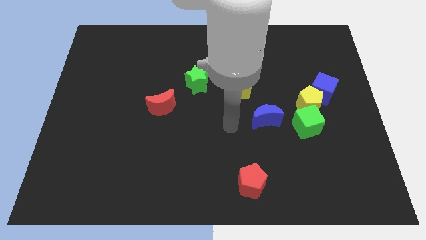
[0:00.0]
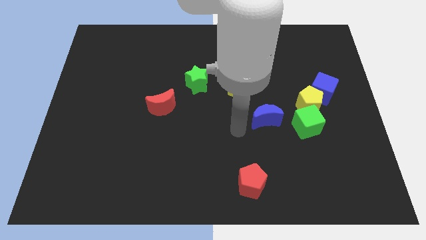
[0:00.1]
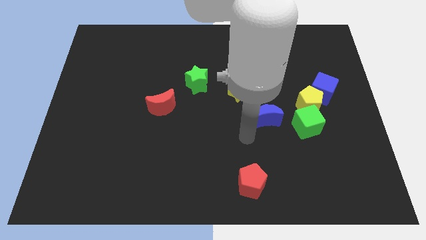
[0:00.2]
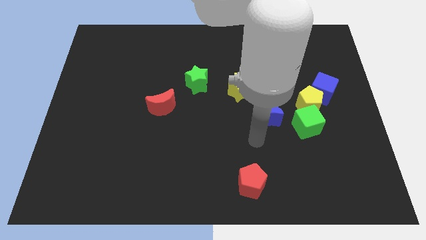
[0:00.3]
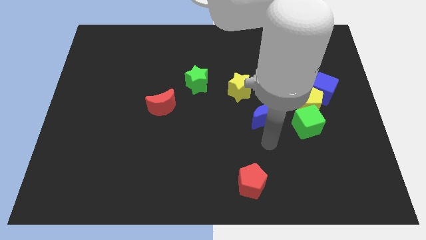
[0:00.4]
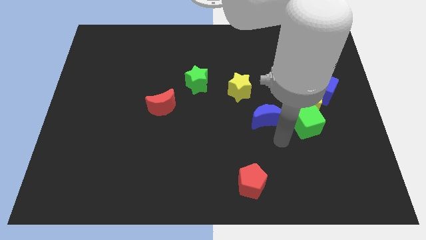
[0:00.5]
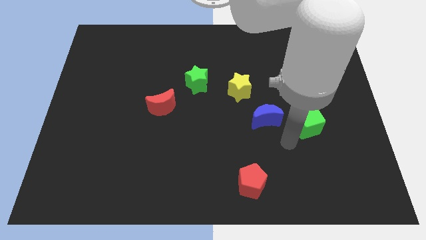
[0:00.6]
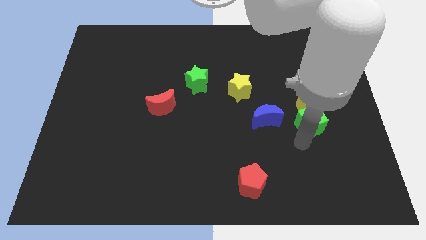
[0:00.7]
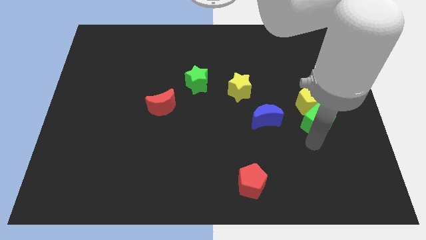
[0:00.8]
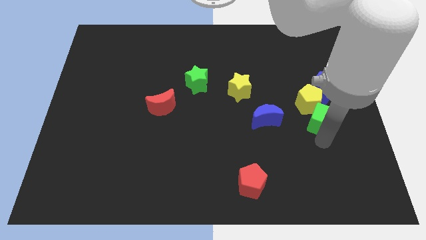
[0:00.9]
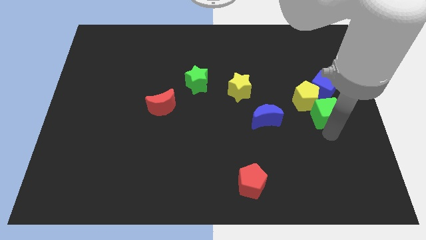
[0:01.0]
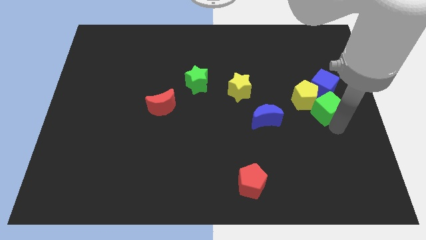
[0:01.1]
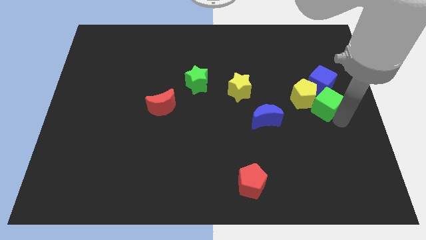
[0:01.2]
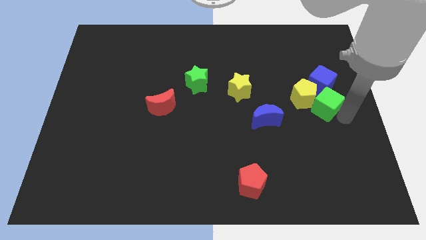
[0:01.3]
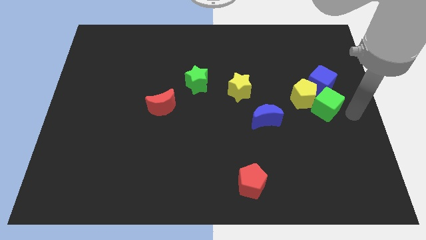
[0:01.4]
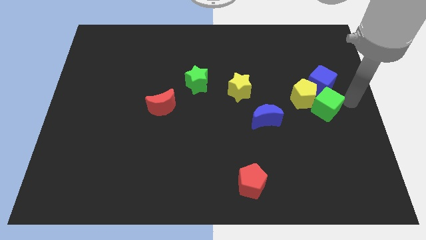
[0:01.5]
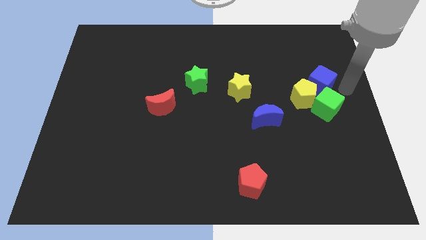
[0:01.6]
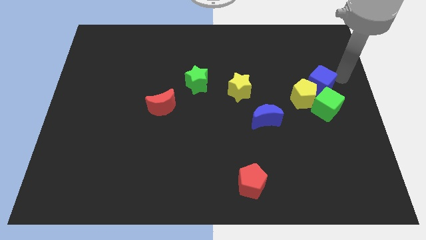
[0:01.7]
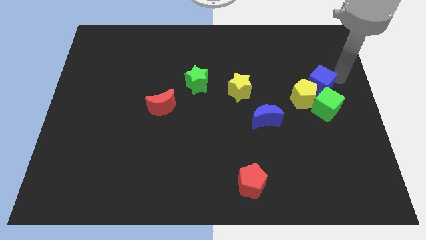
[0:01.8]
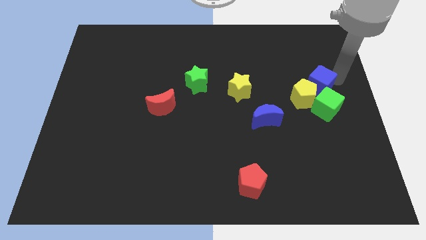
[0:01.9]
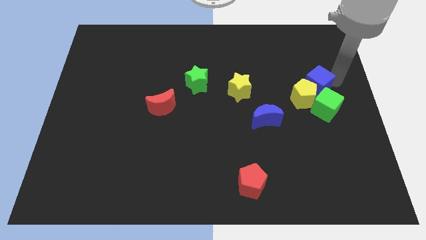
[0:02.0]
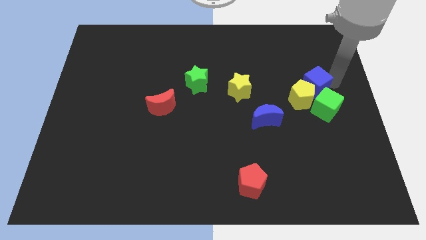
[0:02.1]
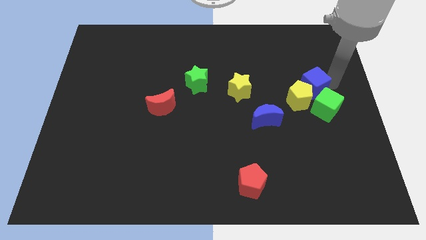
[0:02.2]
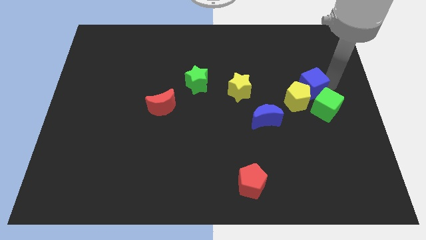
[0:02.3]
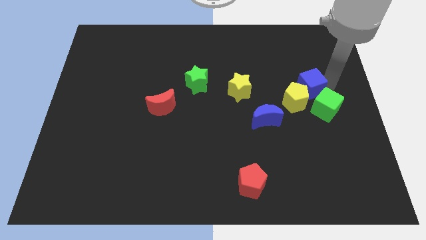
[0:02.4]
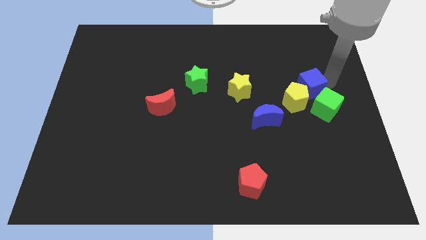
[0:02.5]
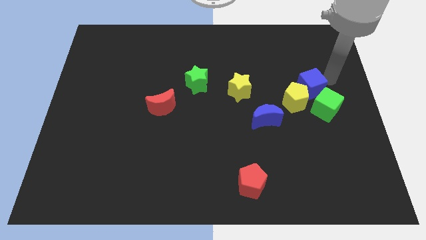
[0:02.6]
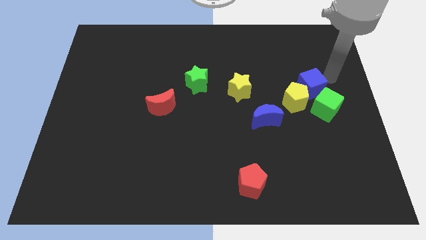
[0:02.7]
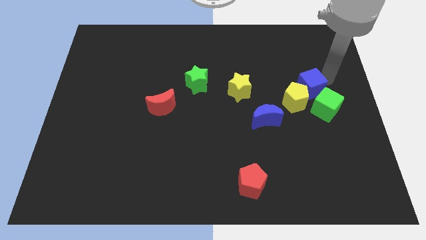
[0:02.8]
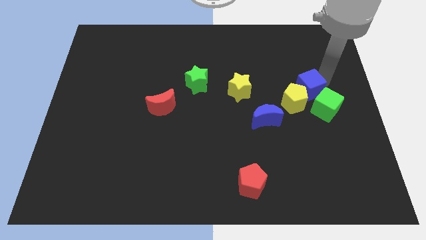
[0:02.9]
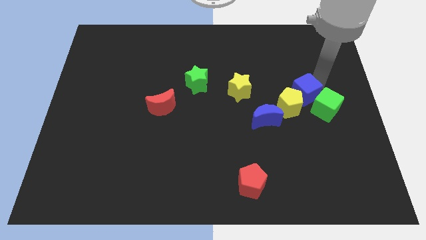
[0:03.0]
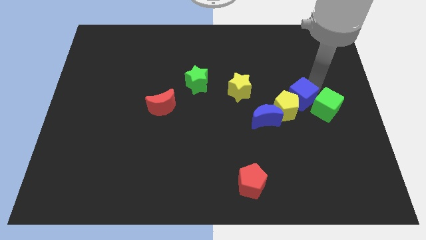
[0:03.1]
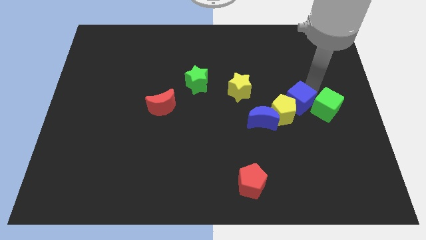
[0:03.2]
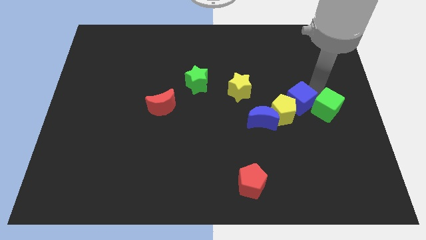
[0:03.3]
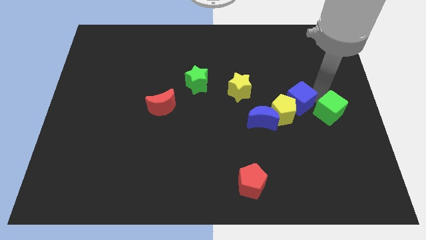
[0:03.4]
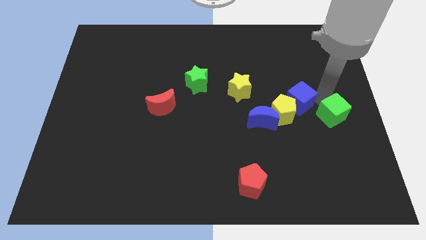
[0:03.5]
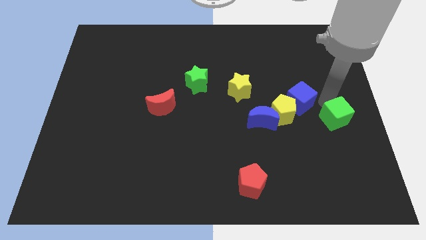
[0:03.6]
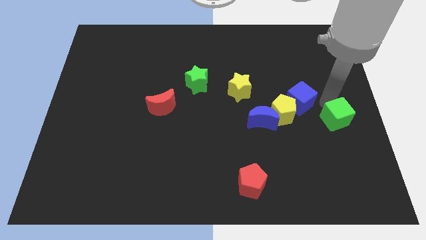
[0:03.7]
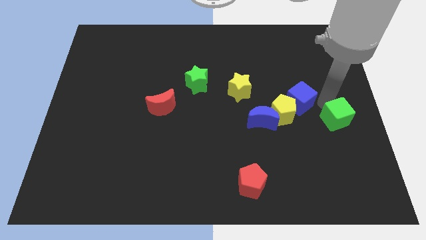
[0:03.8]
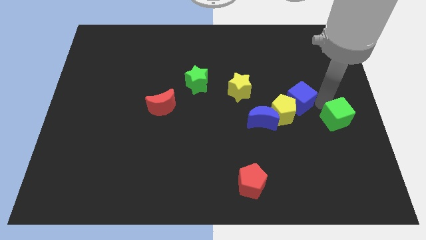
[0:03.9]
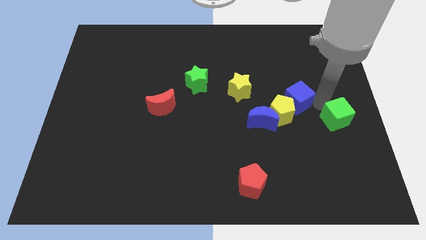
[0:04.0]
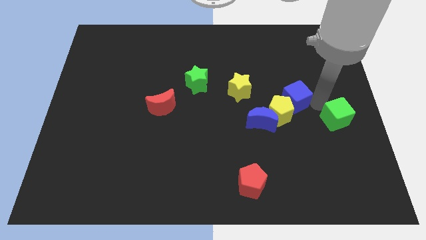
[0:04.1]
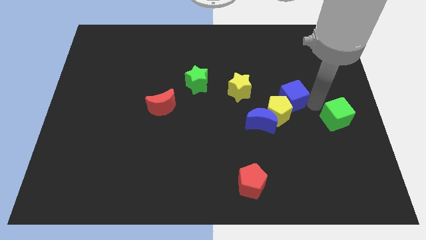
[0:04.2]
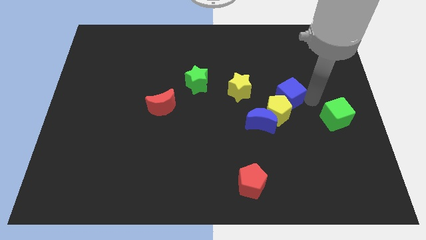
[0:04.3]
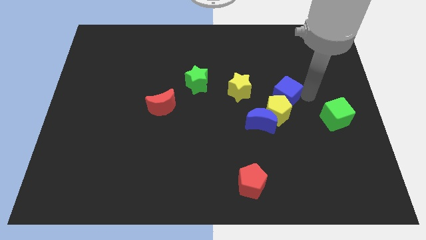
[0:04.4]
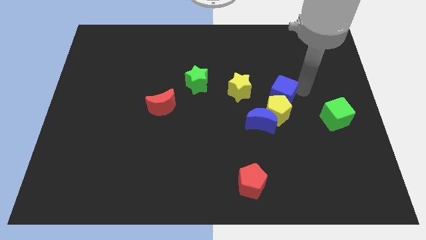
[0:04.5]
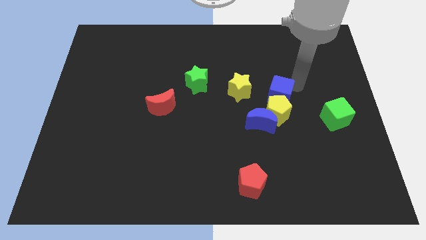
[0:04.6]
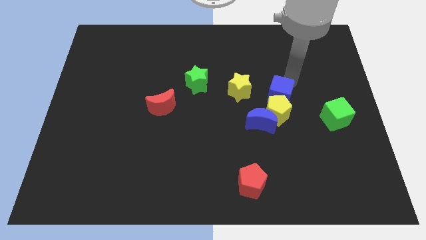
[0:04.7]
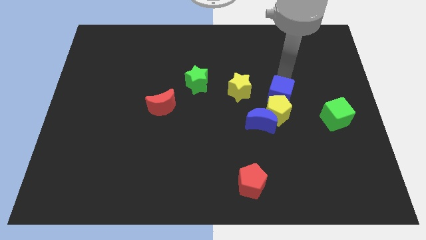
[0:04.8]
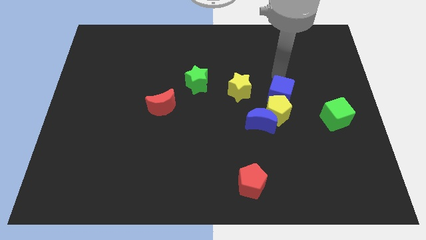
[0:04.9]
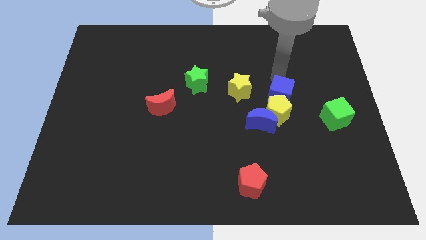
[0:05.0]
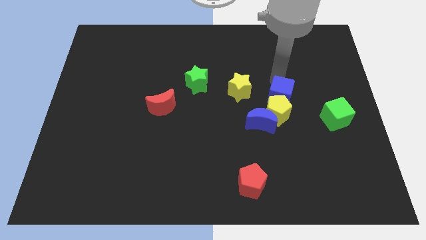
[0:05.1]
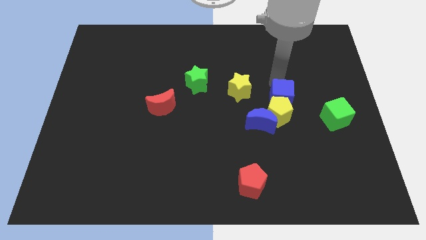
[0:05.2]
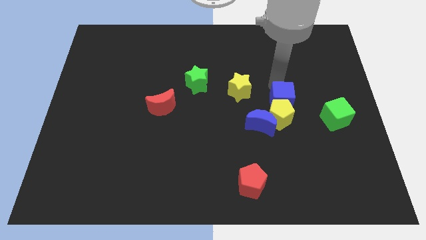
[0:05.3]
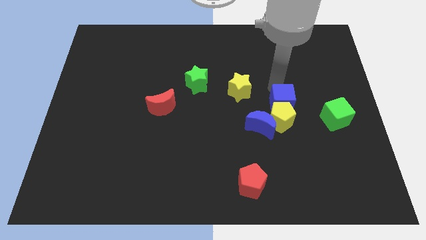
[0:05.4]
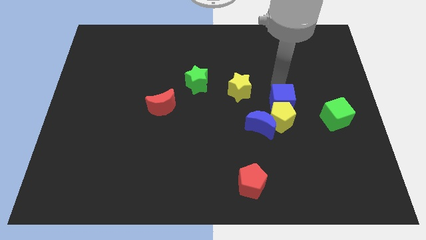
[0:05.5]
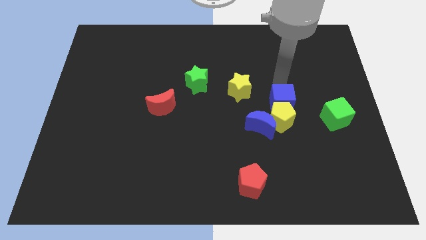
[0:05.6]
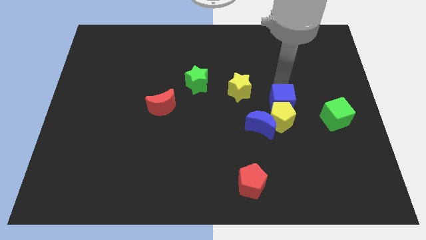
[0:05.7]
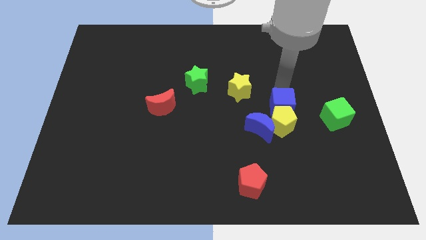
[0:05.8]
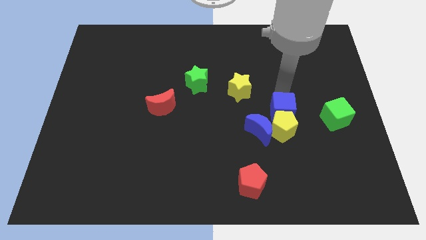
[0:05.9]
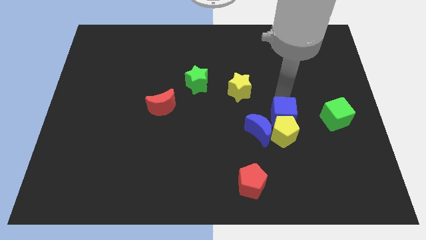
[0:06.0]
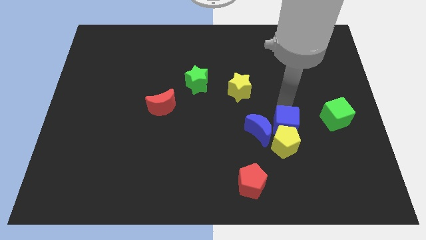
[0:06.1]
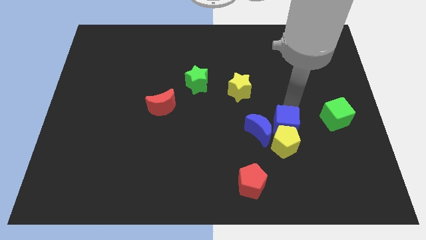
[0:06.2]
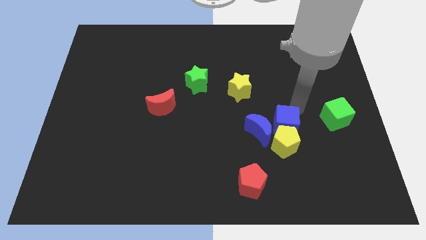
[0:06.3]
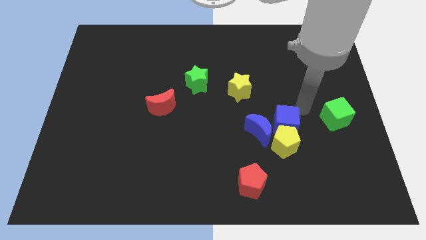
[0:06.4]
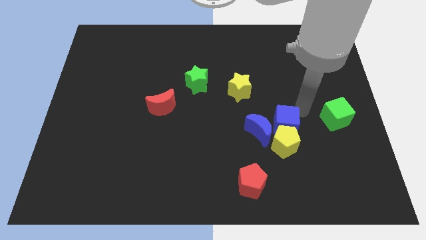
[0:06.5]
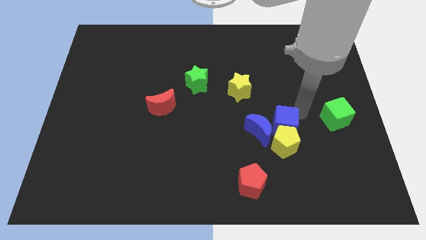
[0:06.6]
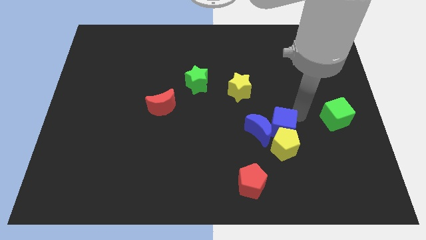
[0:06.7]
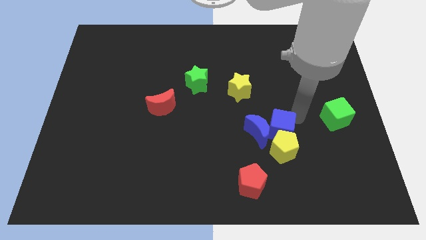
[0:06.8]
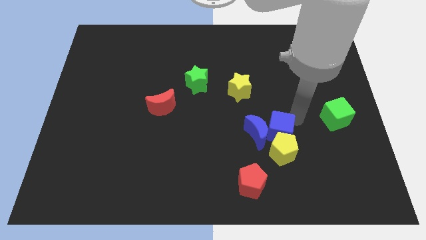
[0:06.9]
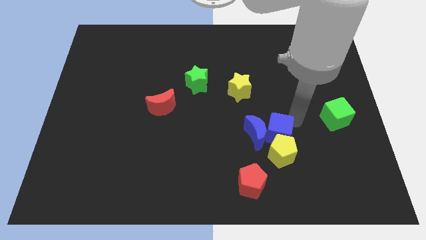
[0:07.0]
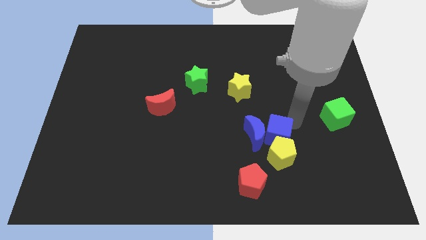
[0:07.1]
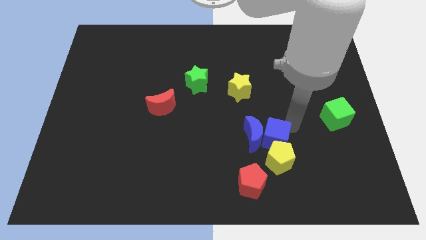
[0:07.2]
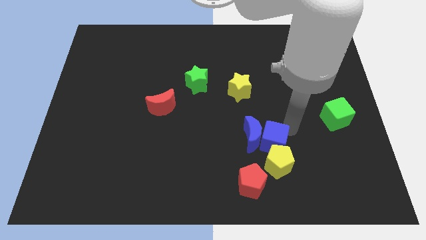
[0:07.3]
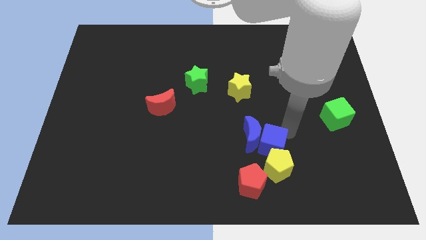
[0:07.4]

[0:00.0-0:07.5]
slide the blue cube down and to the left

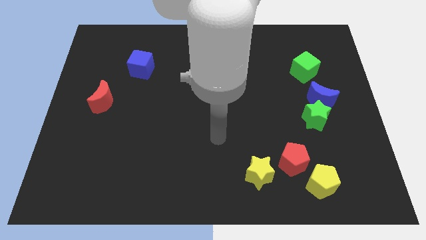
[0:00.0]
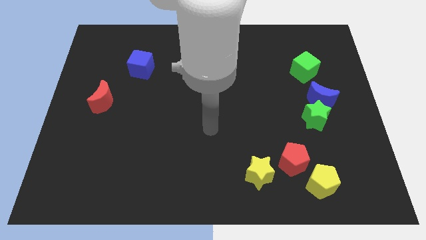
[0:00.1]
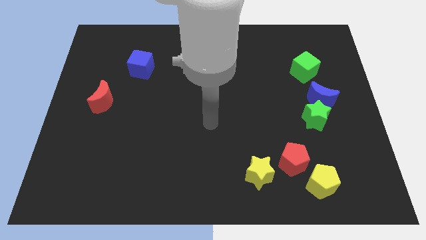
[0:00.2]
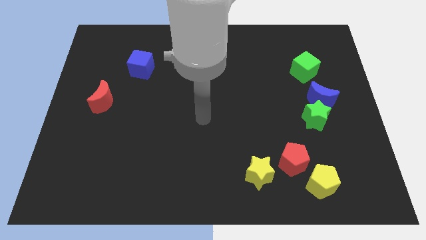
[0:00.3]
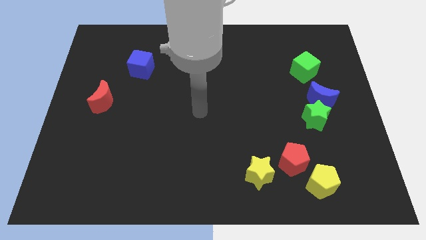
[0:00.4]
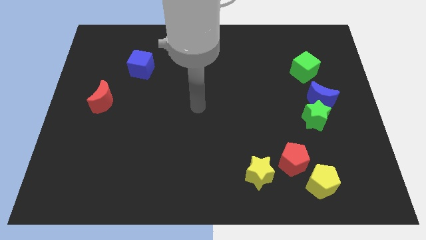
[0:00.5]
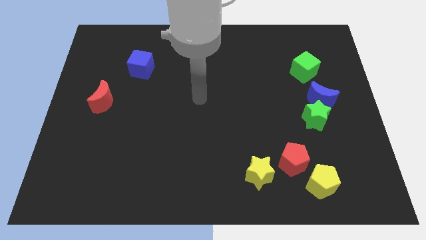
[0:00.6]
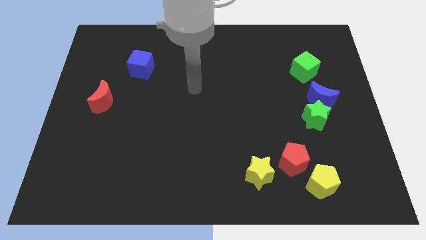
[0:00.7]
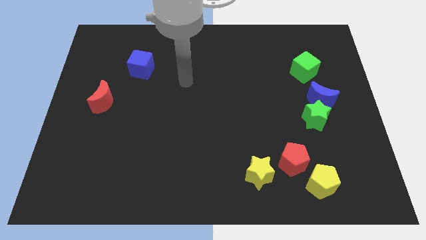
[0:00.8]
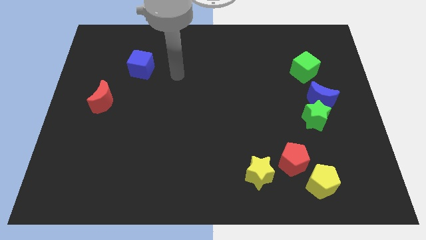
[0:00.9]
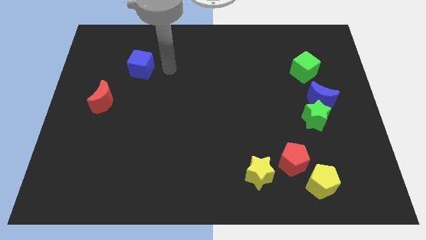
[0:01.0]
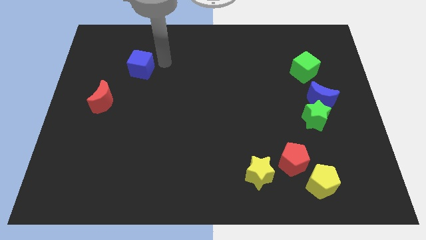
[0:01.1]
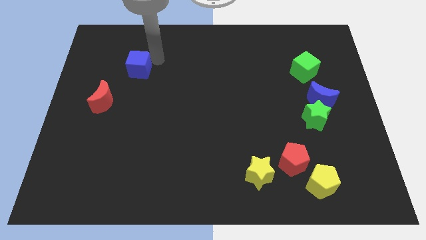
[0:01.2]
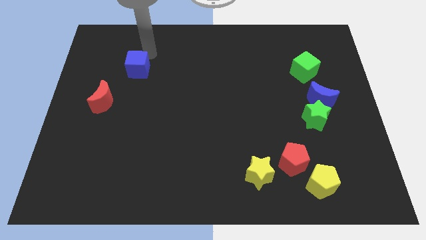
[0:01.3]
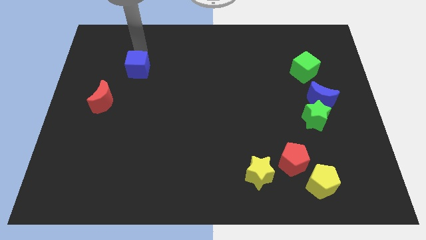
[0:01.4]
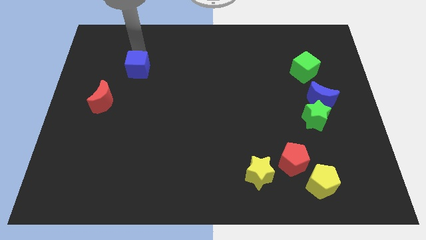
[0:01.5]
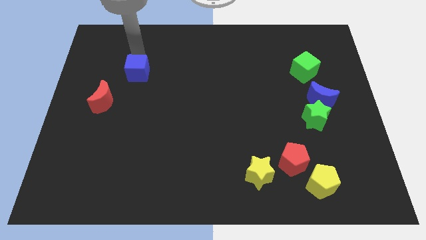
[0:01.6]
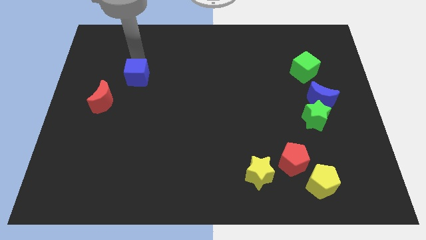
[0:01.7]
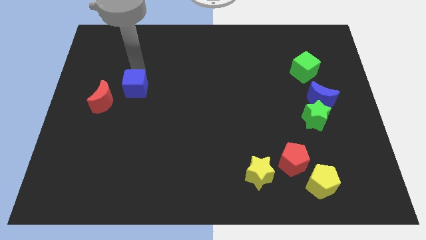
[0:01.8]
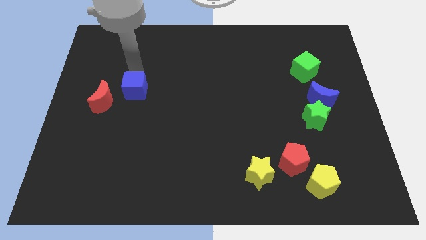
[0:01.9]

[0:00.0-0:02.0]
slide the blue cube downwards a bit
